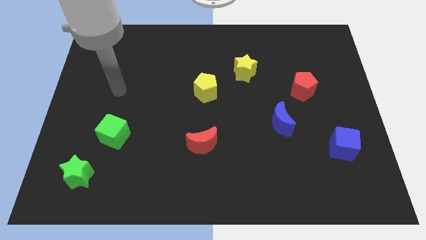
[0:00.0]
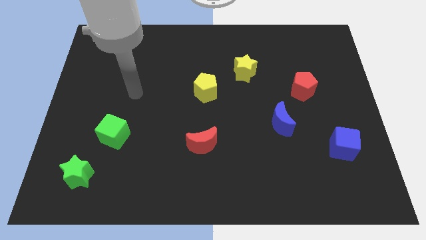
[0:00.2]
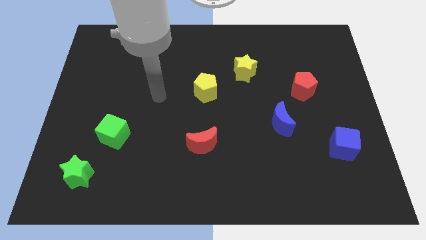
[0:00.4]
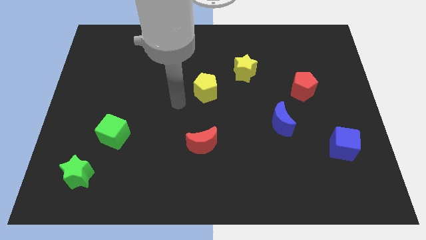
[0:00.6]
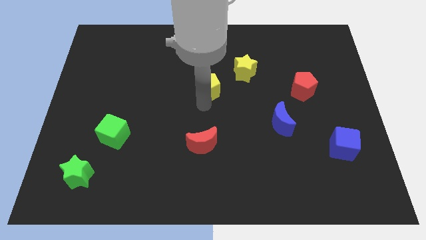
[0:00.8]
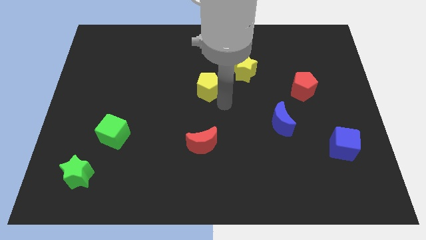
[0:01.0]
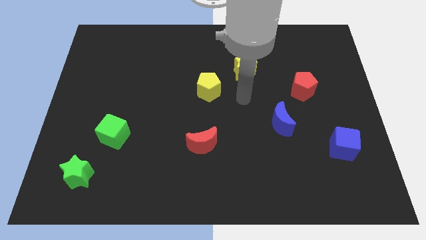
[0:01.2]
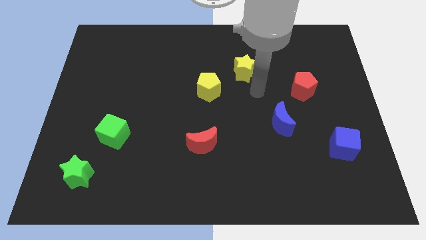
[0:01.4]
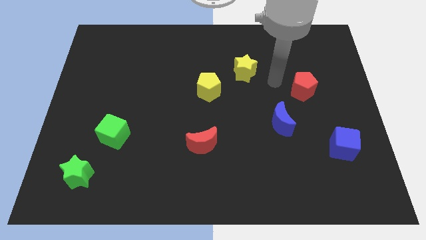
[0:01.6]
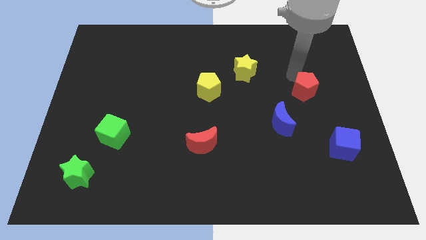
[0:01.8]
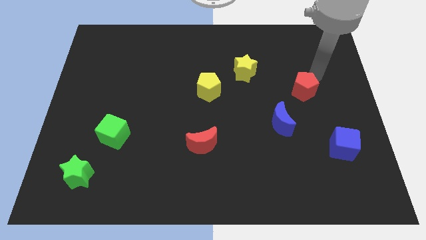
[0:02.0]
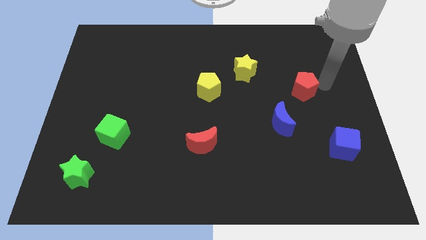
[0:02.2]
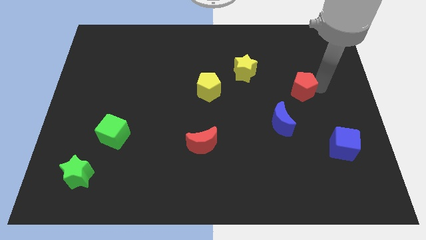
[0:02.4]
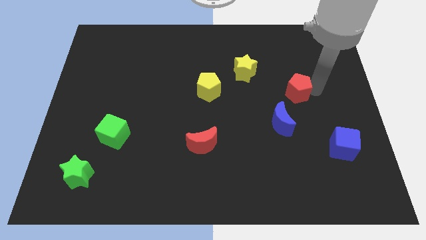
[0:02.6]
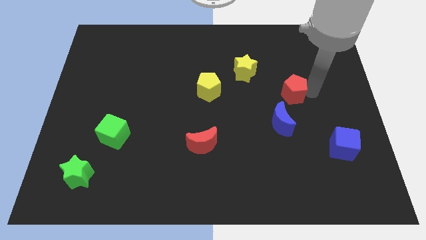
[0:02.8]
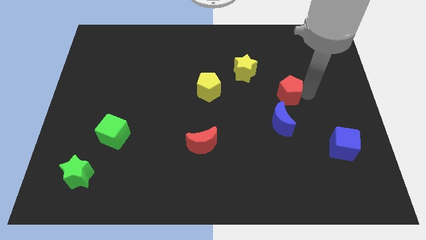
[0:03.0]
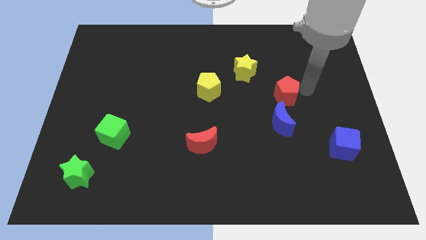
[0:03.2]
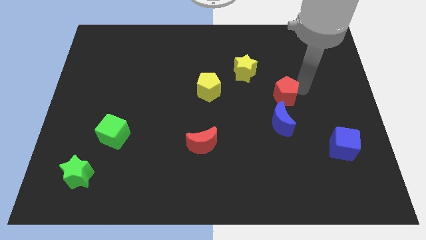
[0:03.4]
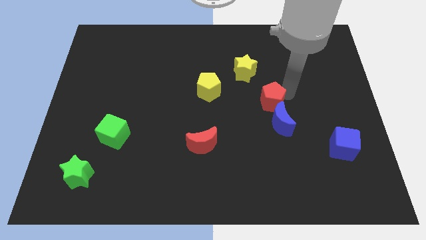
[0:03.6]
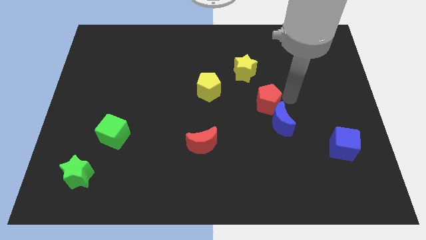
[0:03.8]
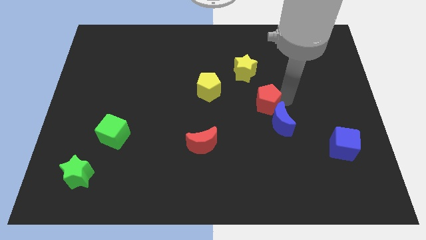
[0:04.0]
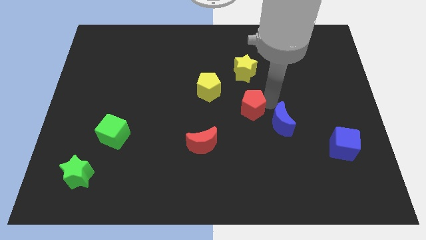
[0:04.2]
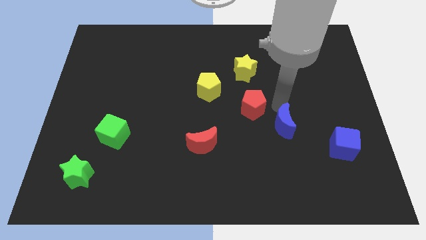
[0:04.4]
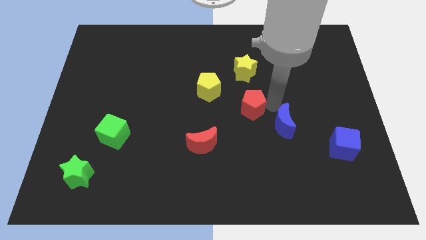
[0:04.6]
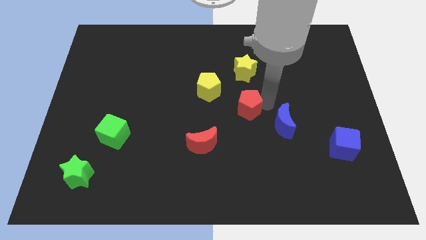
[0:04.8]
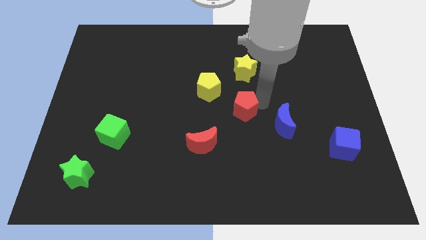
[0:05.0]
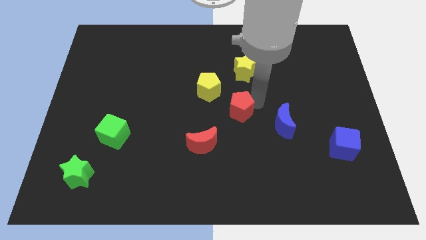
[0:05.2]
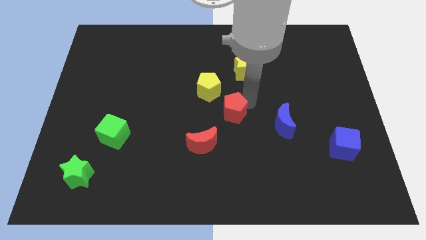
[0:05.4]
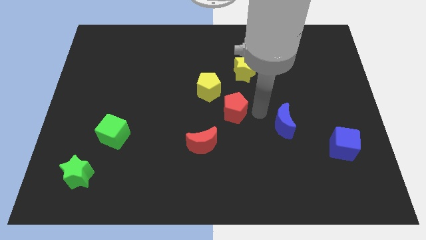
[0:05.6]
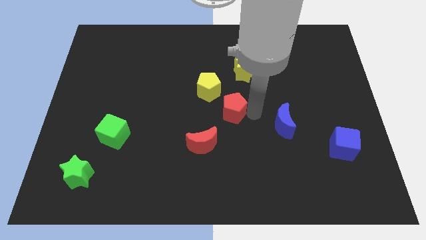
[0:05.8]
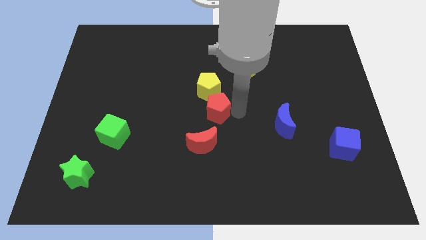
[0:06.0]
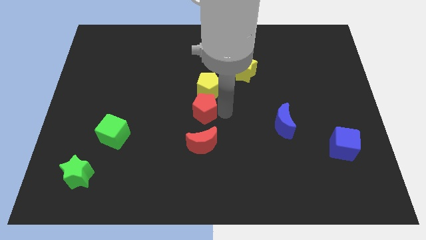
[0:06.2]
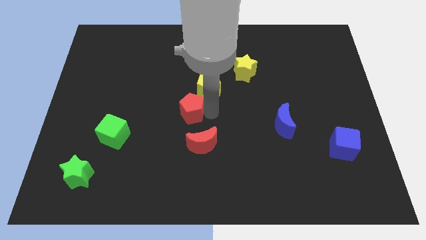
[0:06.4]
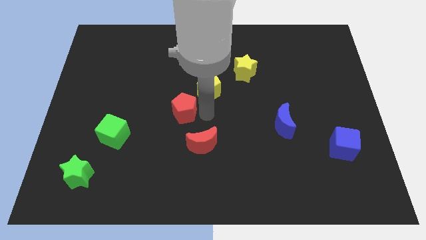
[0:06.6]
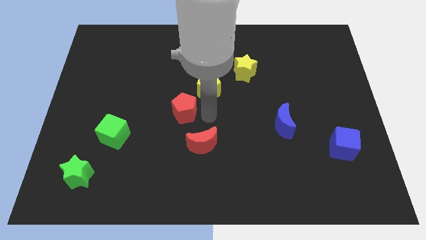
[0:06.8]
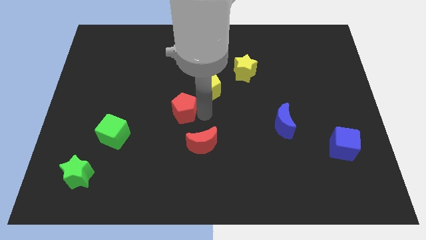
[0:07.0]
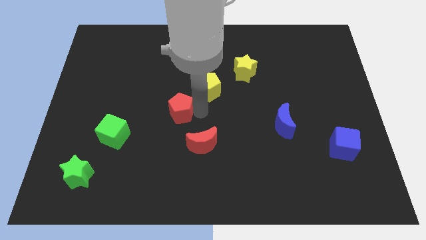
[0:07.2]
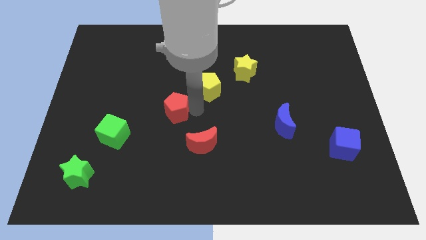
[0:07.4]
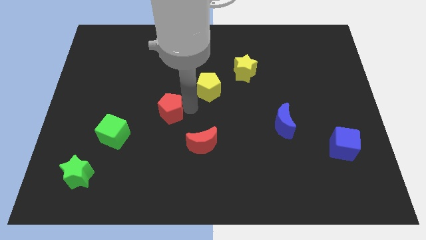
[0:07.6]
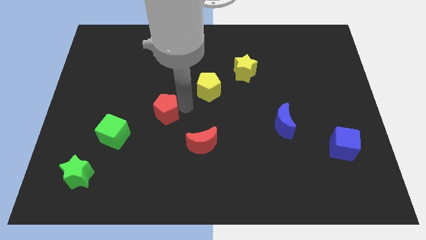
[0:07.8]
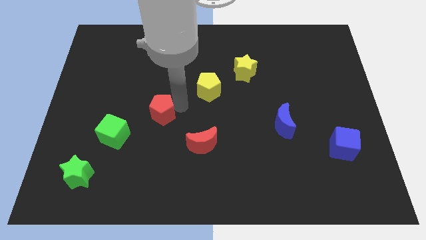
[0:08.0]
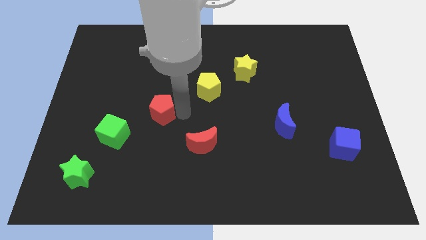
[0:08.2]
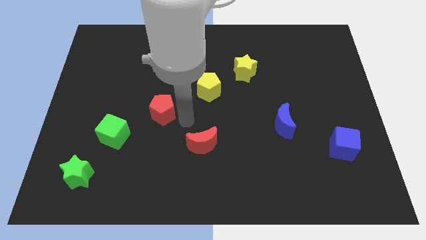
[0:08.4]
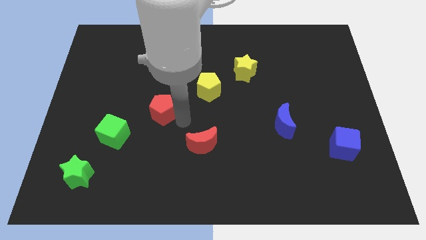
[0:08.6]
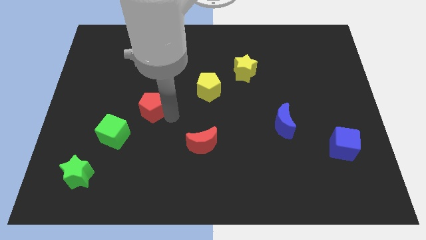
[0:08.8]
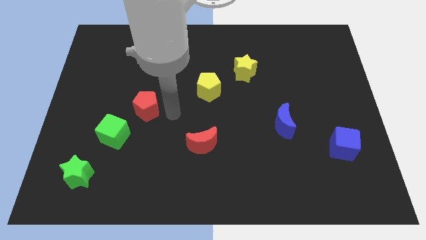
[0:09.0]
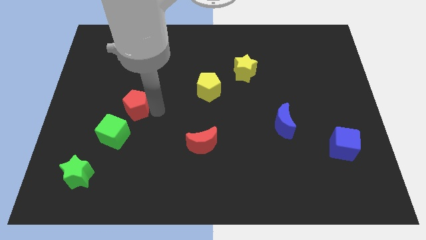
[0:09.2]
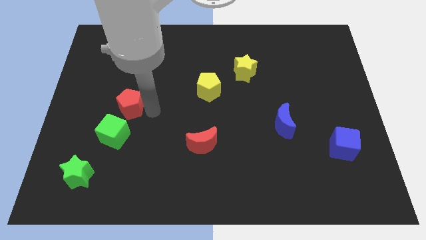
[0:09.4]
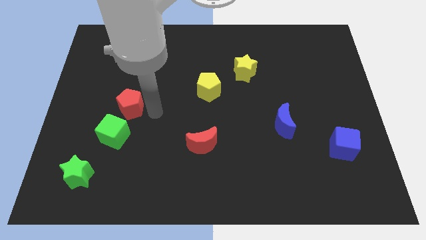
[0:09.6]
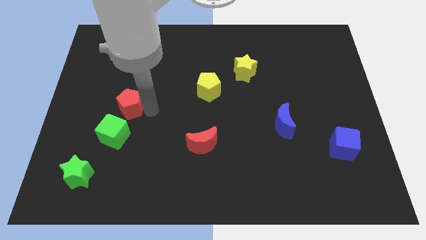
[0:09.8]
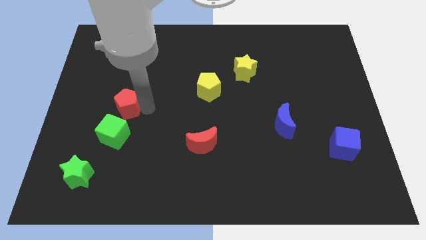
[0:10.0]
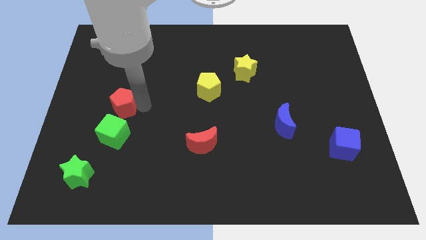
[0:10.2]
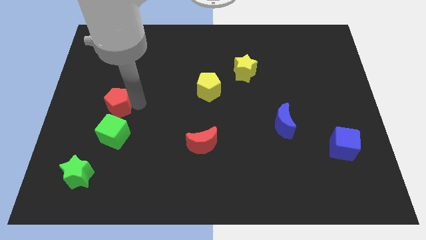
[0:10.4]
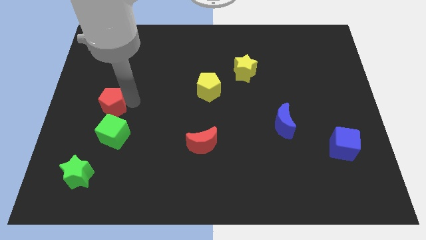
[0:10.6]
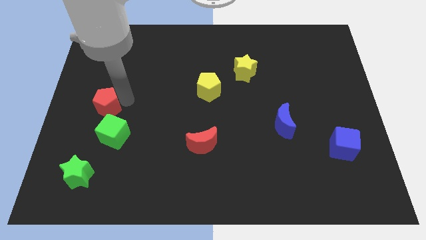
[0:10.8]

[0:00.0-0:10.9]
put the red pentagon to the left side of the board

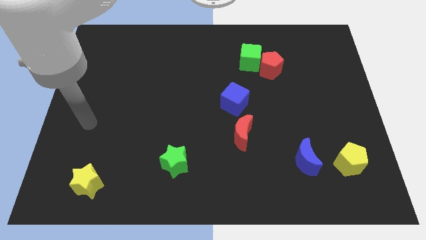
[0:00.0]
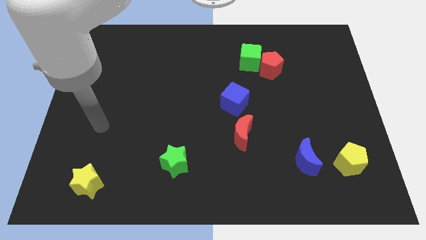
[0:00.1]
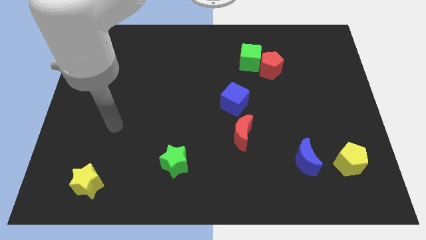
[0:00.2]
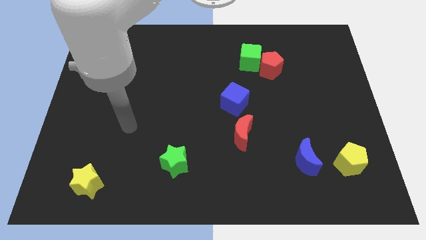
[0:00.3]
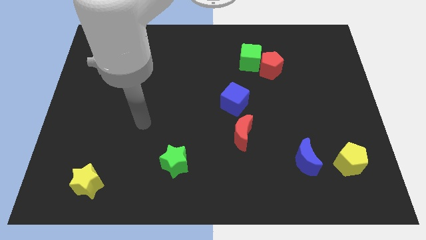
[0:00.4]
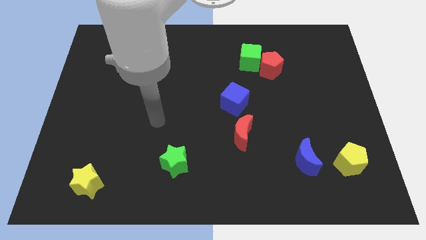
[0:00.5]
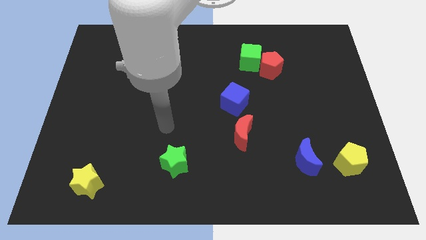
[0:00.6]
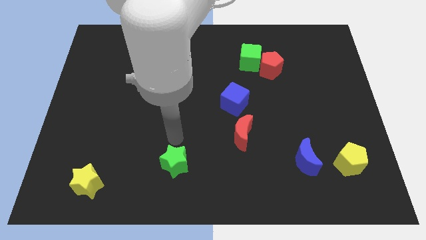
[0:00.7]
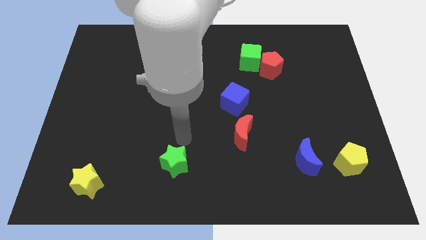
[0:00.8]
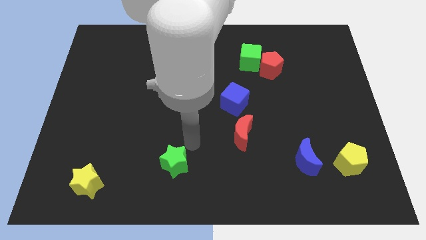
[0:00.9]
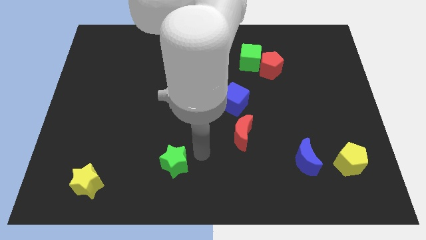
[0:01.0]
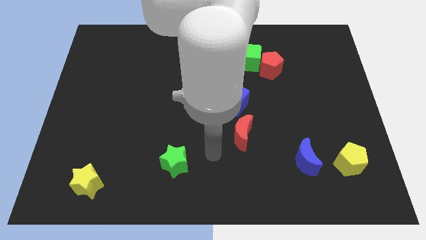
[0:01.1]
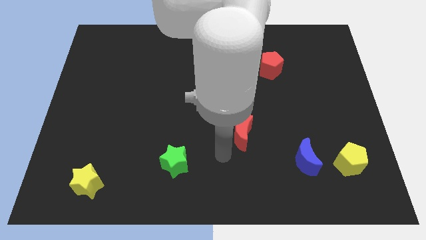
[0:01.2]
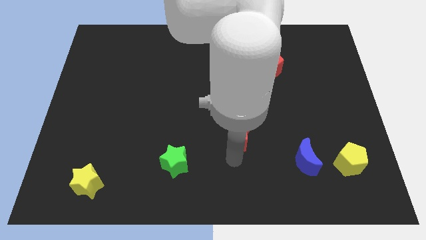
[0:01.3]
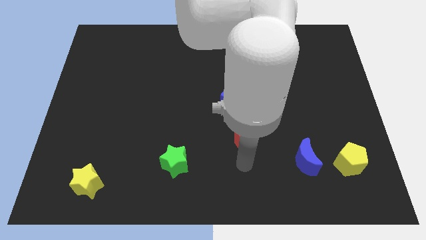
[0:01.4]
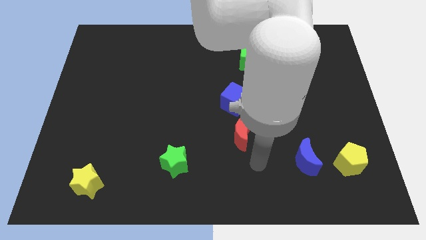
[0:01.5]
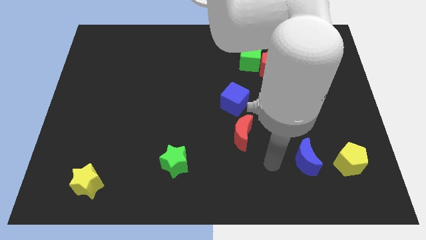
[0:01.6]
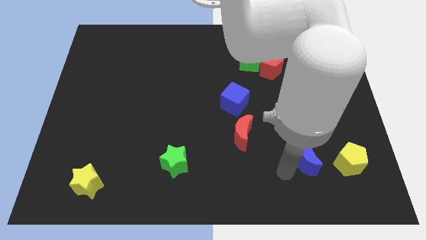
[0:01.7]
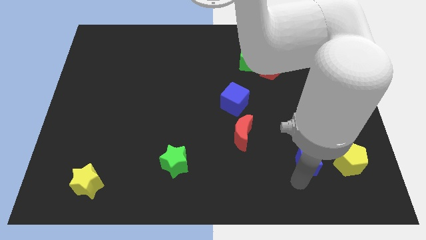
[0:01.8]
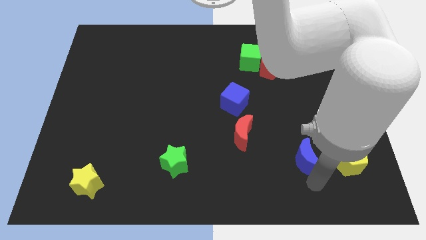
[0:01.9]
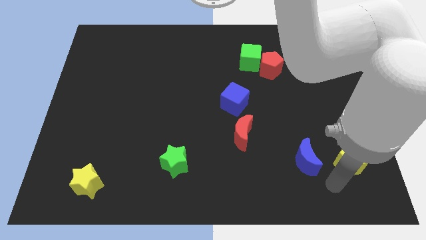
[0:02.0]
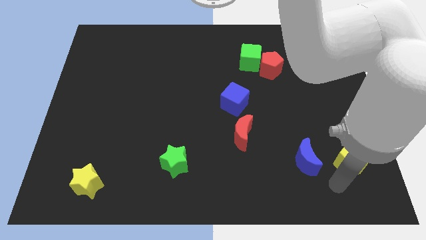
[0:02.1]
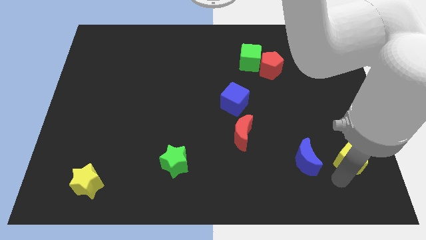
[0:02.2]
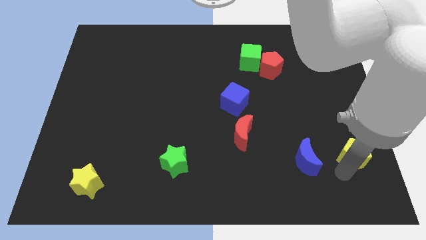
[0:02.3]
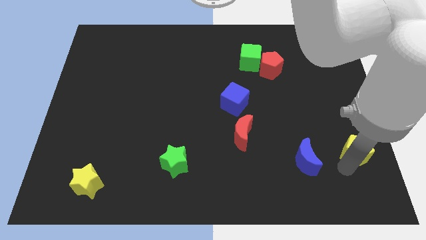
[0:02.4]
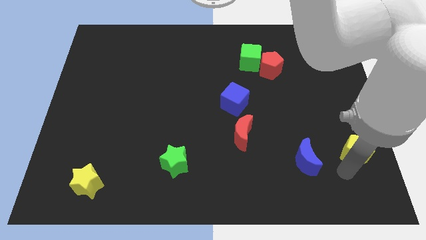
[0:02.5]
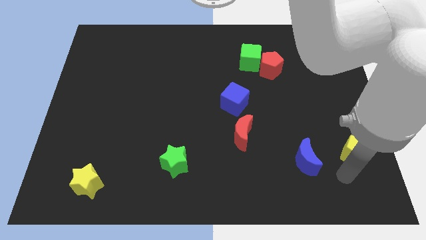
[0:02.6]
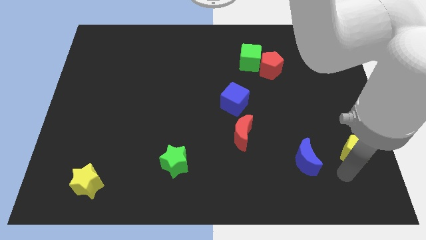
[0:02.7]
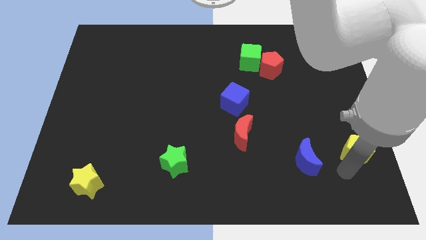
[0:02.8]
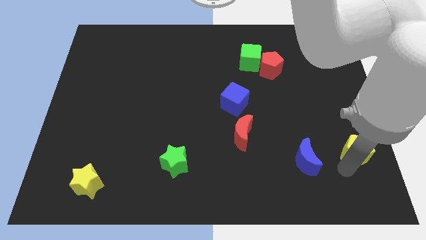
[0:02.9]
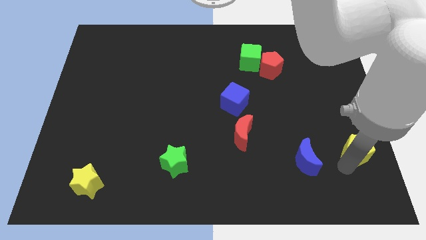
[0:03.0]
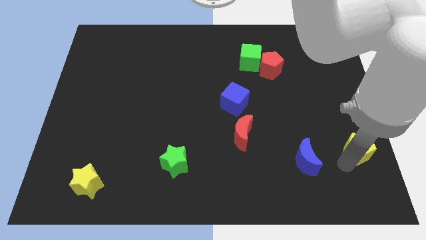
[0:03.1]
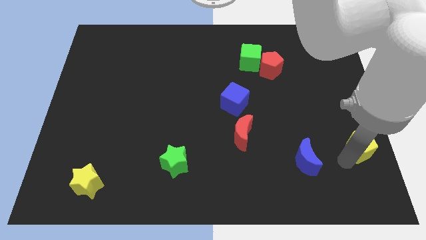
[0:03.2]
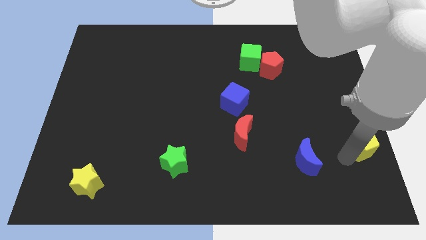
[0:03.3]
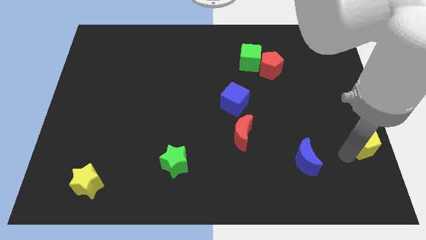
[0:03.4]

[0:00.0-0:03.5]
push the yellow pentagon to the right side
